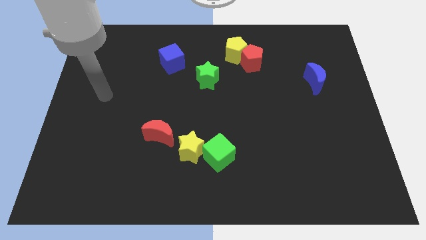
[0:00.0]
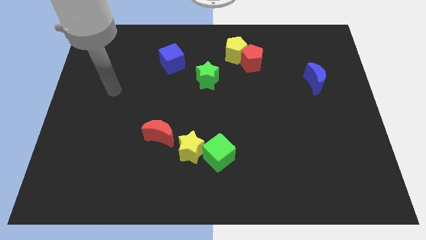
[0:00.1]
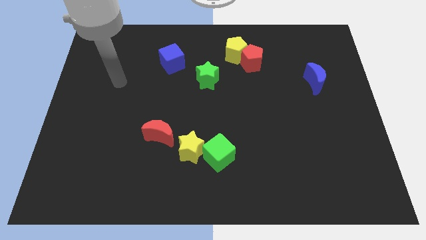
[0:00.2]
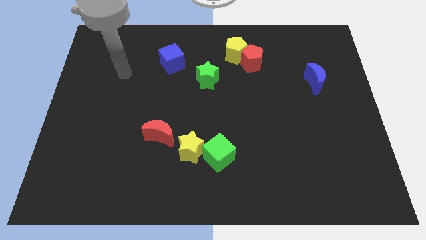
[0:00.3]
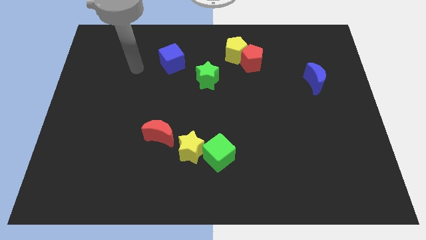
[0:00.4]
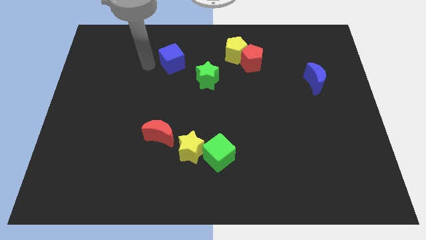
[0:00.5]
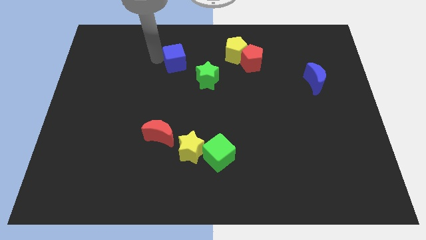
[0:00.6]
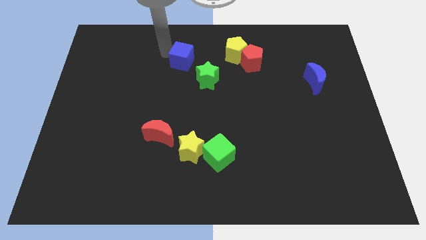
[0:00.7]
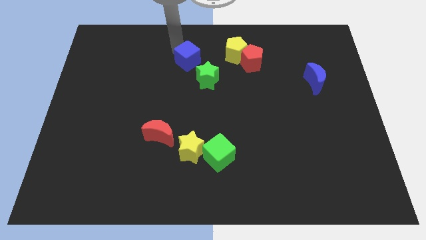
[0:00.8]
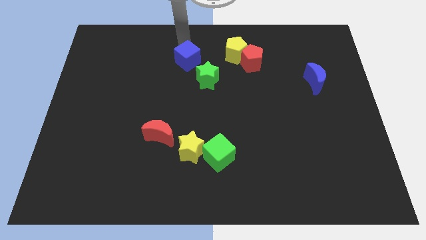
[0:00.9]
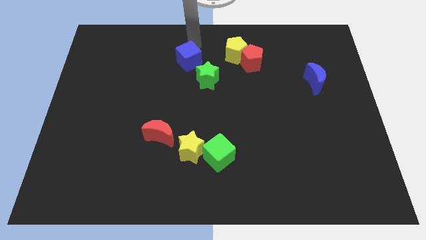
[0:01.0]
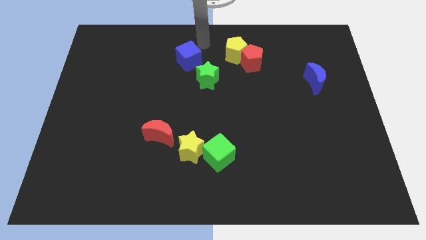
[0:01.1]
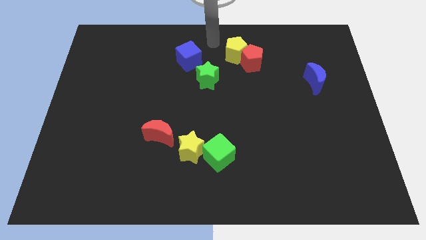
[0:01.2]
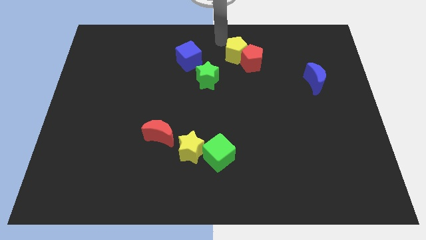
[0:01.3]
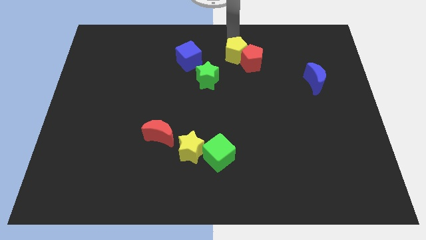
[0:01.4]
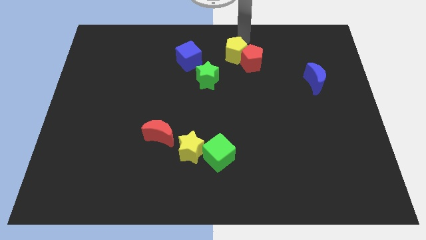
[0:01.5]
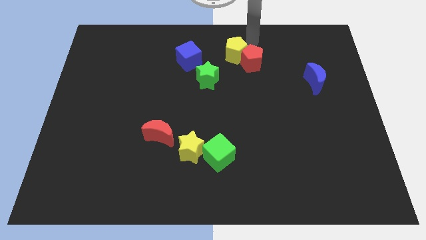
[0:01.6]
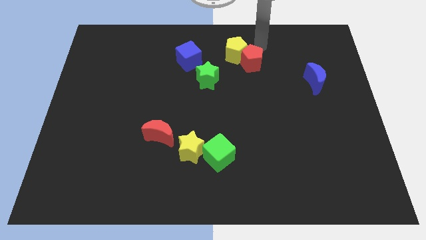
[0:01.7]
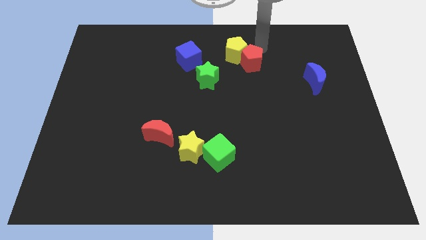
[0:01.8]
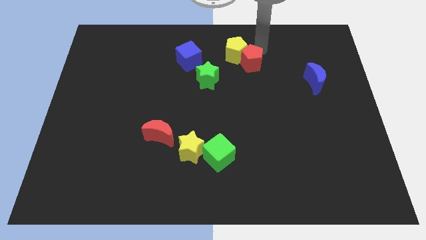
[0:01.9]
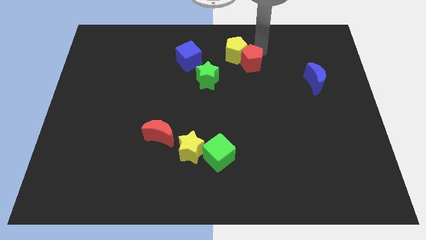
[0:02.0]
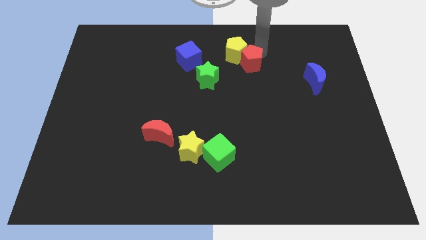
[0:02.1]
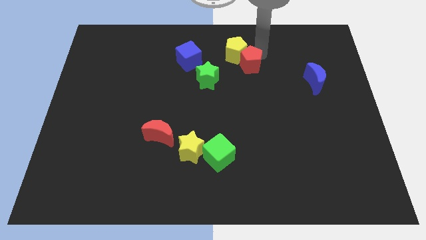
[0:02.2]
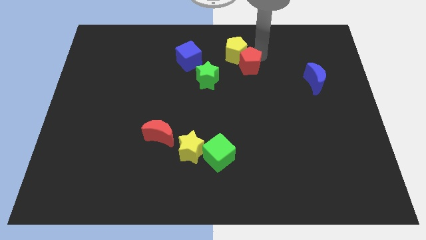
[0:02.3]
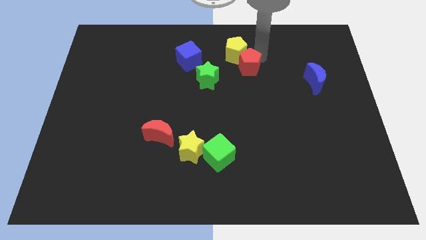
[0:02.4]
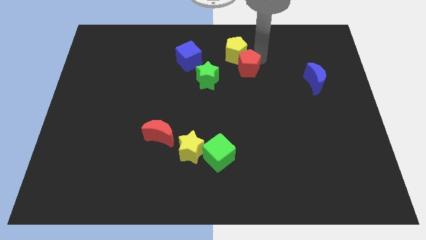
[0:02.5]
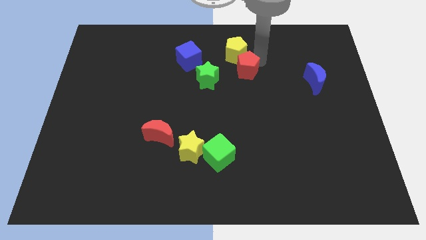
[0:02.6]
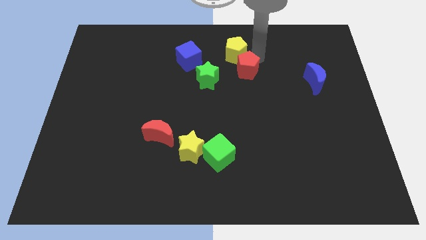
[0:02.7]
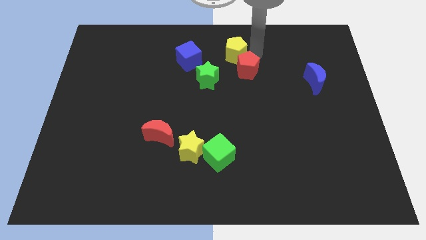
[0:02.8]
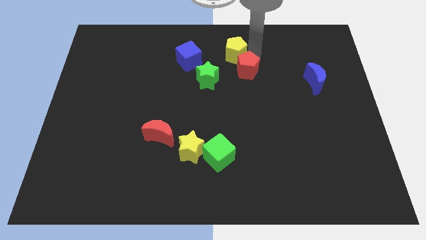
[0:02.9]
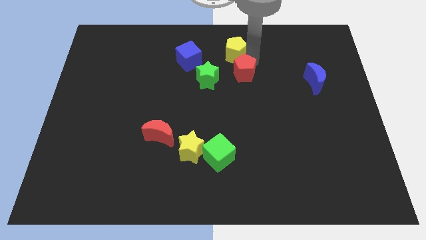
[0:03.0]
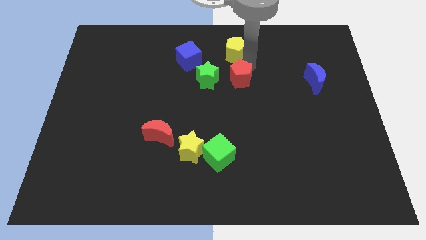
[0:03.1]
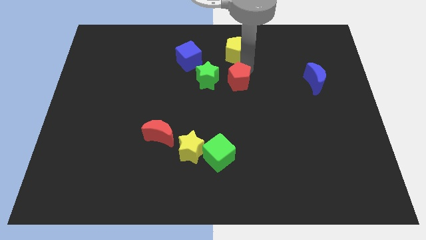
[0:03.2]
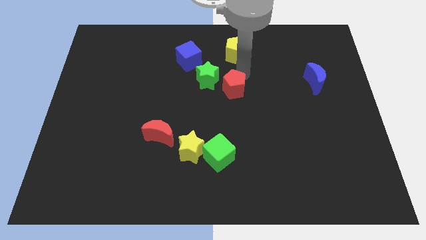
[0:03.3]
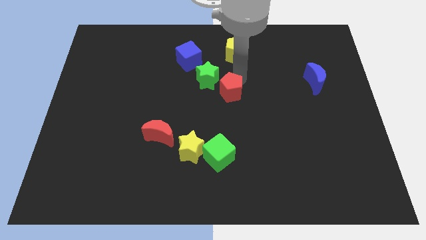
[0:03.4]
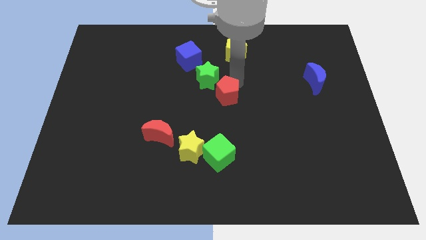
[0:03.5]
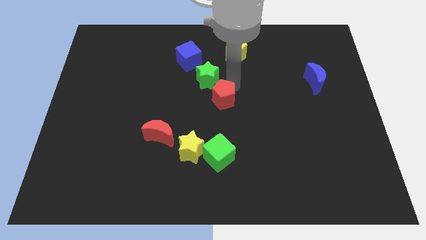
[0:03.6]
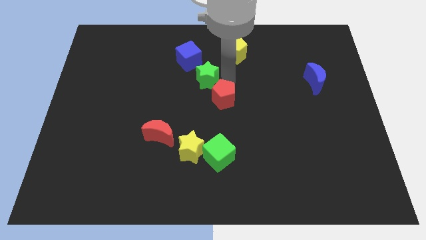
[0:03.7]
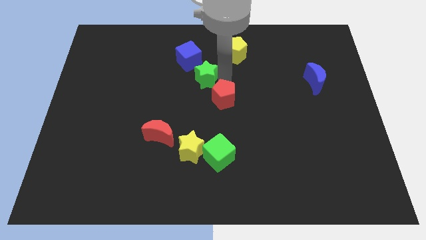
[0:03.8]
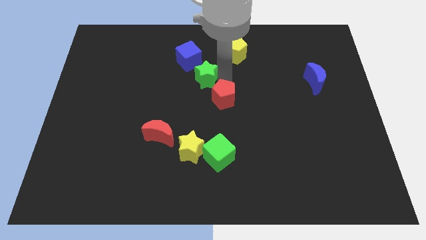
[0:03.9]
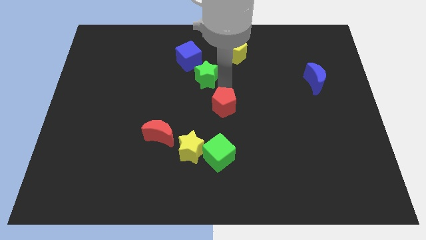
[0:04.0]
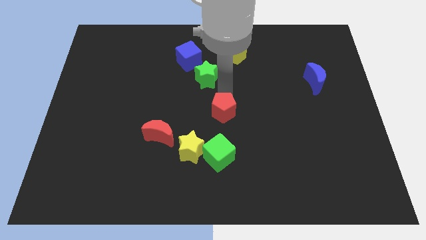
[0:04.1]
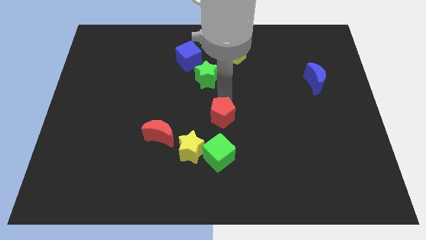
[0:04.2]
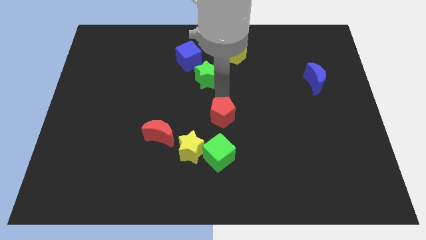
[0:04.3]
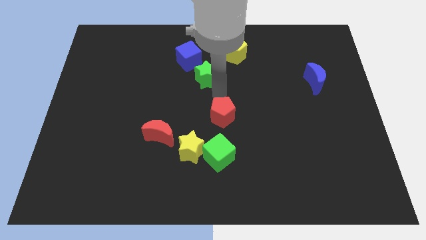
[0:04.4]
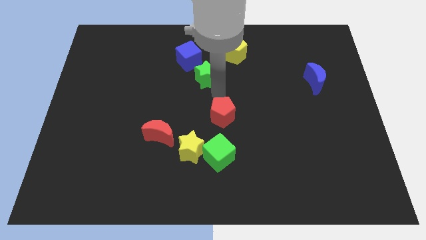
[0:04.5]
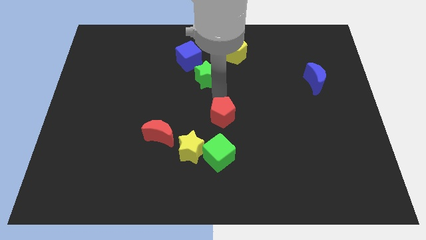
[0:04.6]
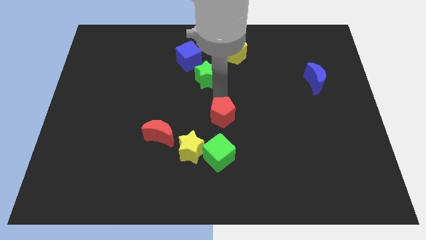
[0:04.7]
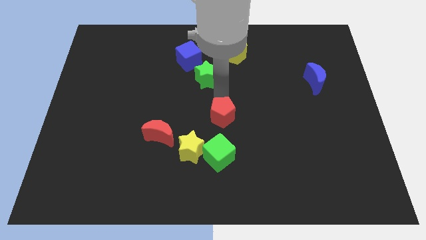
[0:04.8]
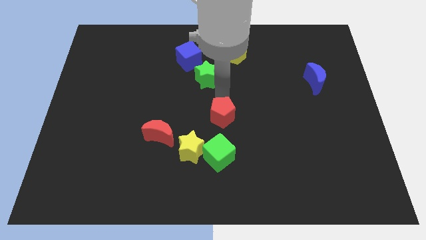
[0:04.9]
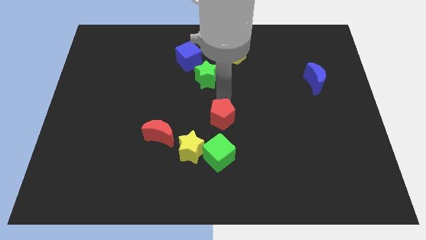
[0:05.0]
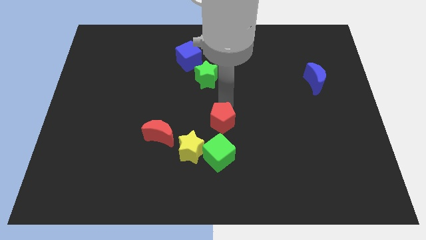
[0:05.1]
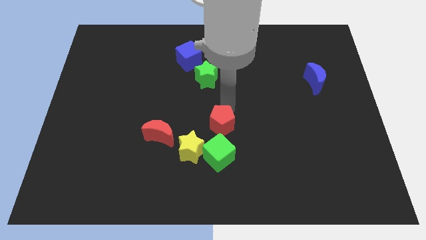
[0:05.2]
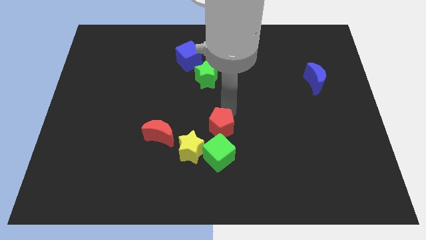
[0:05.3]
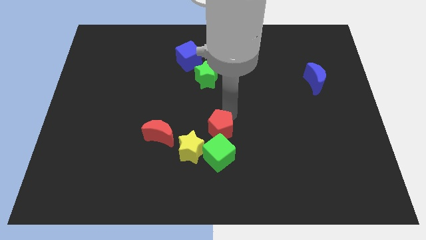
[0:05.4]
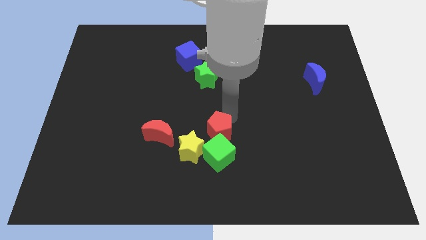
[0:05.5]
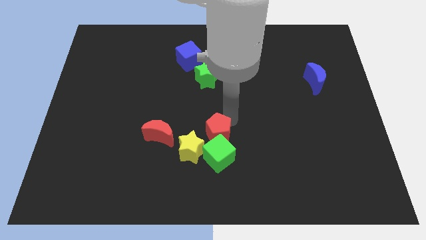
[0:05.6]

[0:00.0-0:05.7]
push the red pentagon towards the green cube

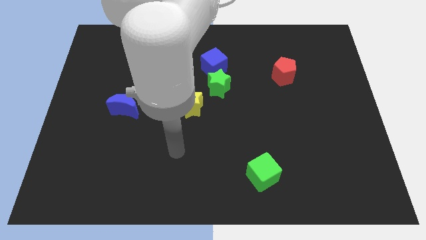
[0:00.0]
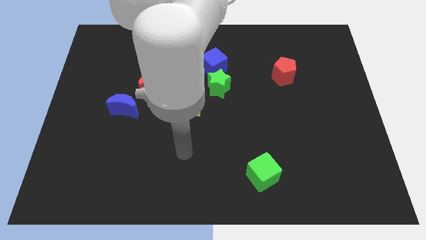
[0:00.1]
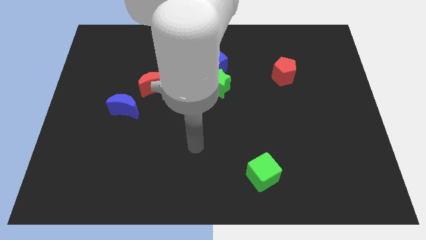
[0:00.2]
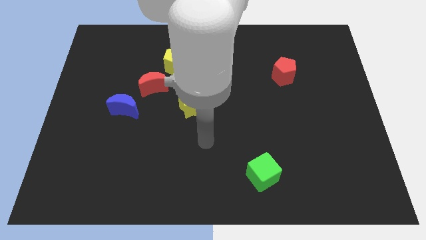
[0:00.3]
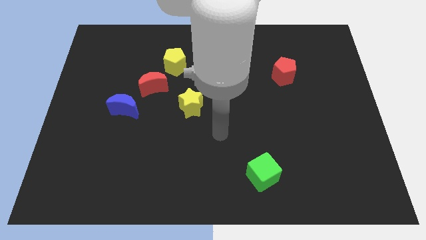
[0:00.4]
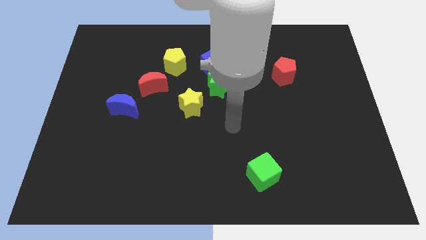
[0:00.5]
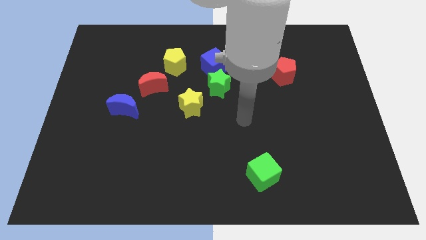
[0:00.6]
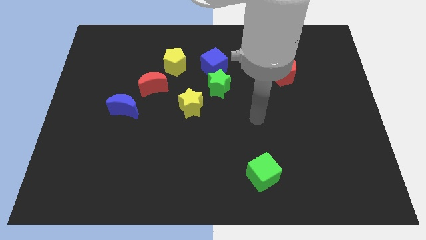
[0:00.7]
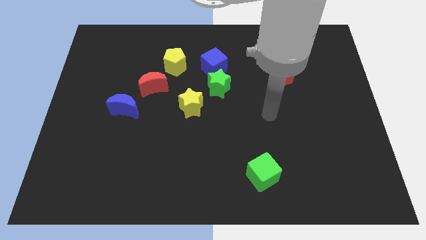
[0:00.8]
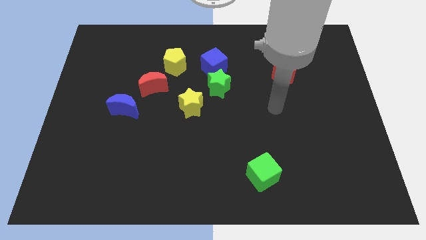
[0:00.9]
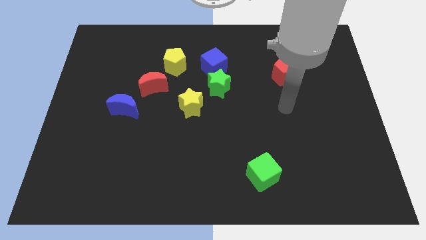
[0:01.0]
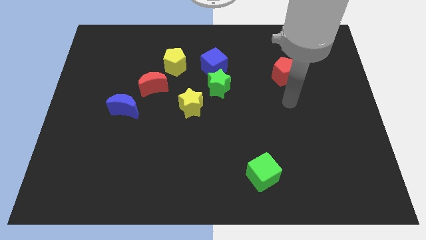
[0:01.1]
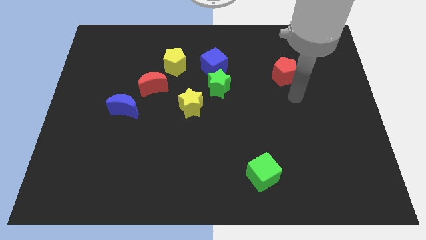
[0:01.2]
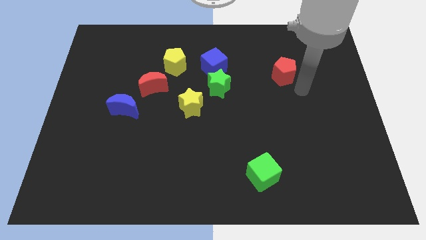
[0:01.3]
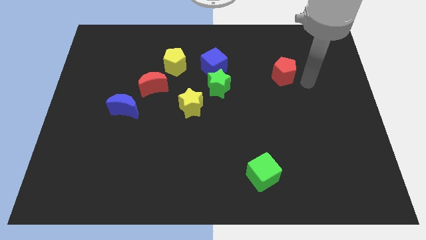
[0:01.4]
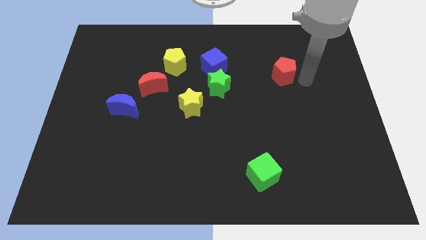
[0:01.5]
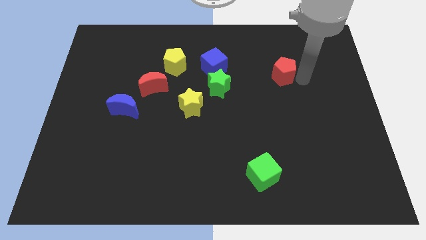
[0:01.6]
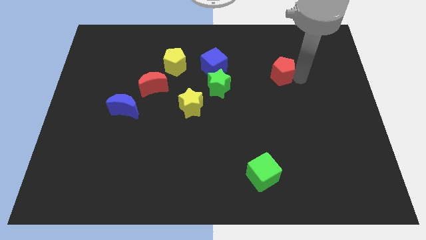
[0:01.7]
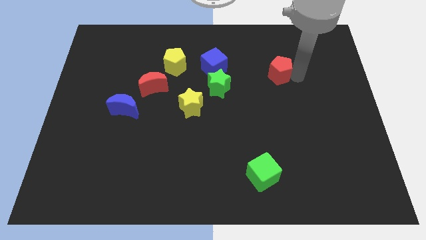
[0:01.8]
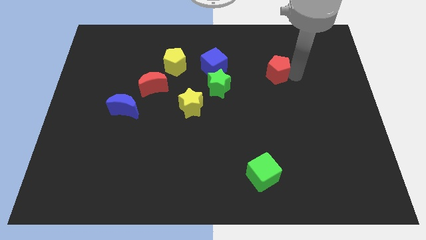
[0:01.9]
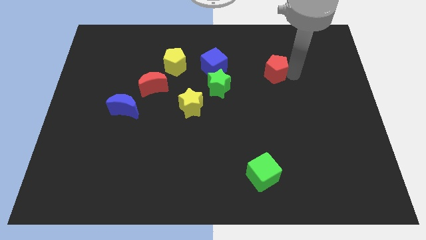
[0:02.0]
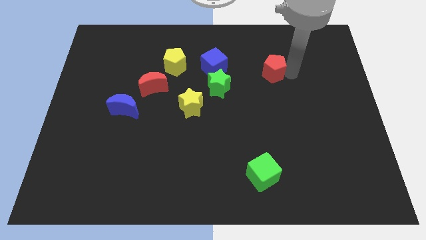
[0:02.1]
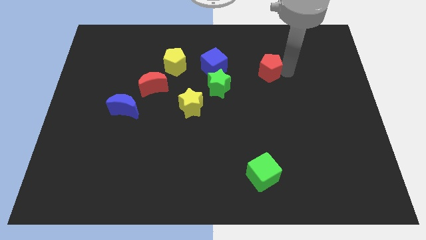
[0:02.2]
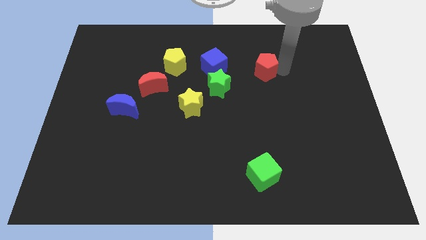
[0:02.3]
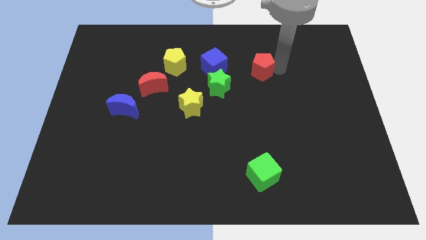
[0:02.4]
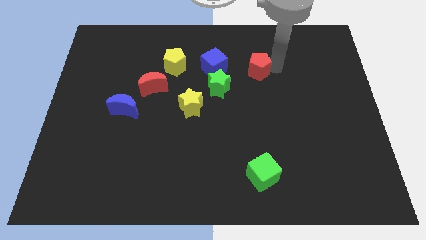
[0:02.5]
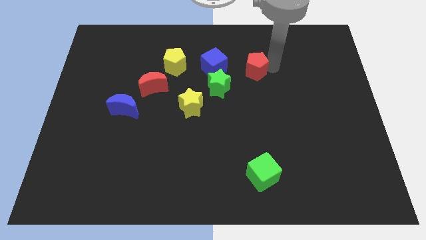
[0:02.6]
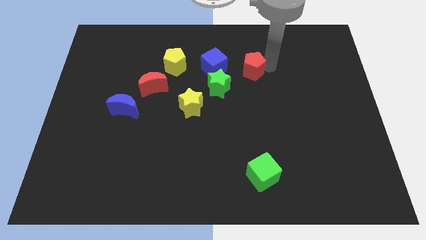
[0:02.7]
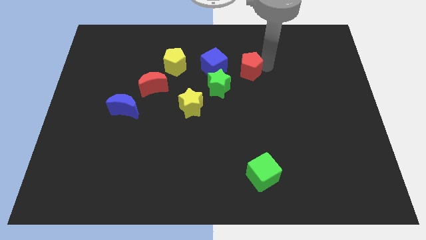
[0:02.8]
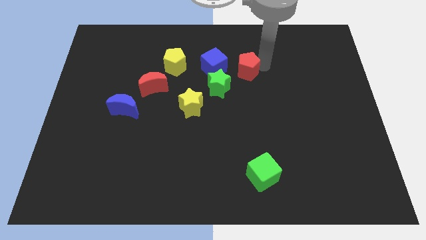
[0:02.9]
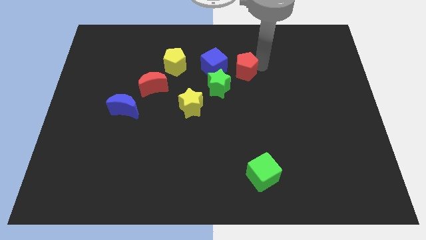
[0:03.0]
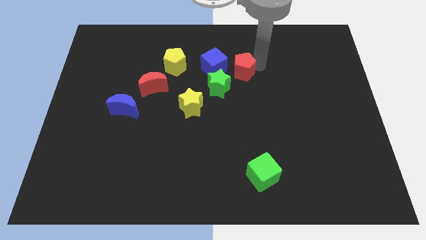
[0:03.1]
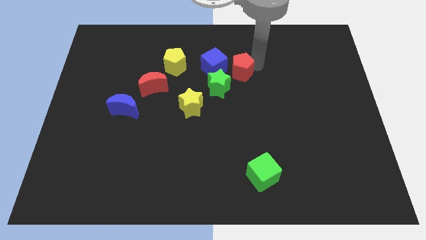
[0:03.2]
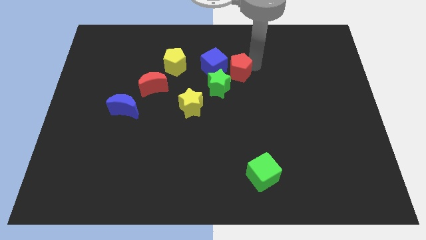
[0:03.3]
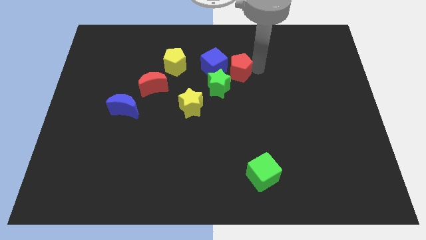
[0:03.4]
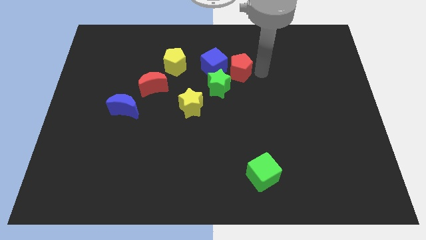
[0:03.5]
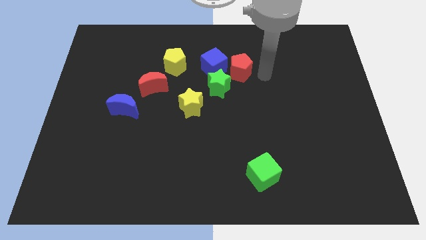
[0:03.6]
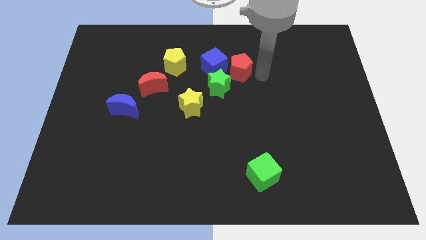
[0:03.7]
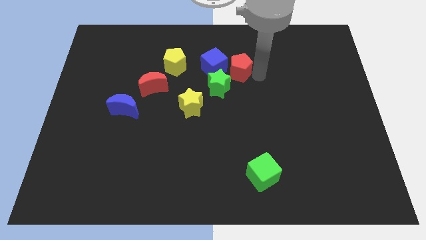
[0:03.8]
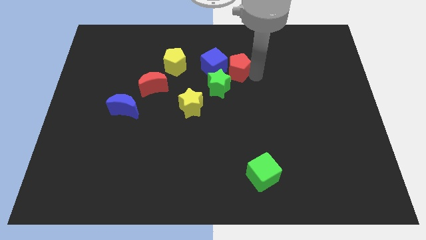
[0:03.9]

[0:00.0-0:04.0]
slide the red pentagon to the blue cube
